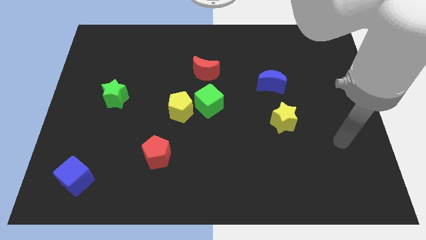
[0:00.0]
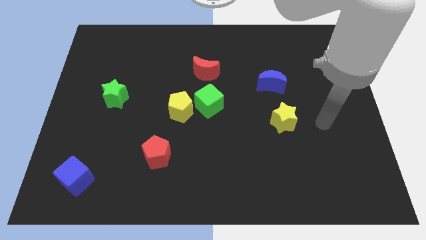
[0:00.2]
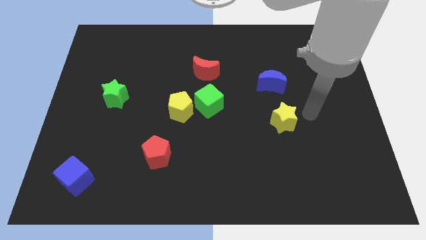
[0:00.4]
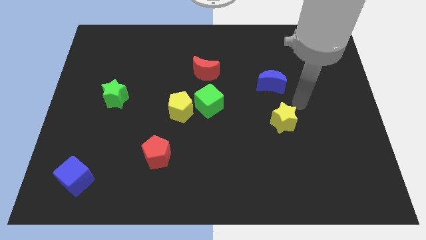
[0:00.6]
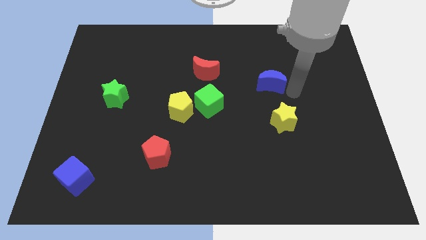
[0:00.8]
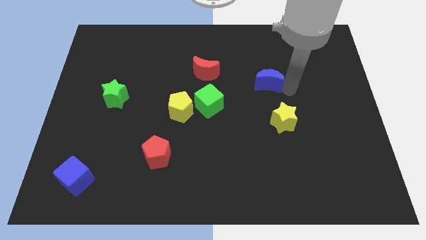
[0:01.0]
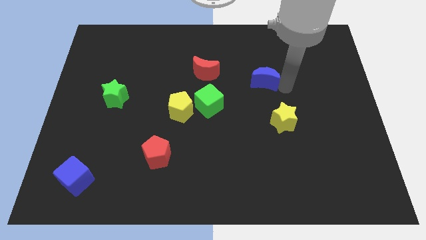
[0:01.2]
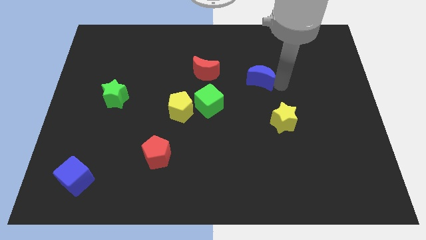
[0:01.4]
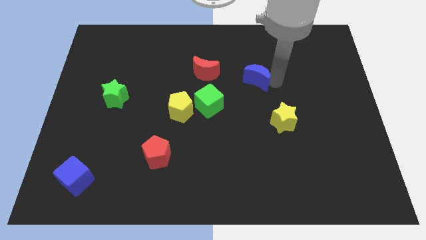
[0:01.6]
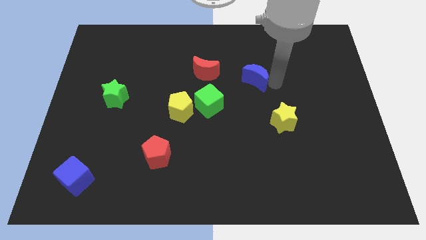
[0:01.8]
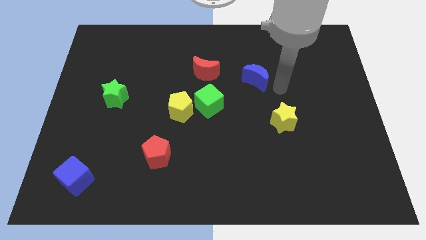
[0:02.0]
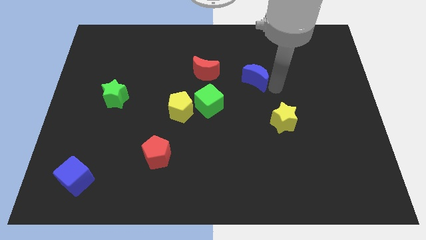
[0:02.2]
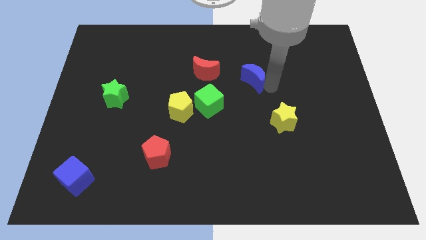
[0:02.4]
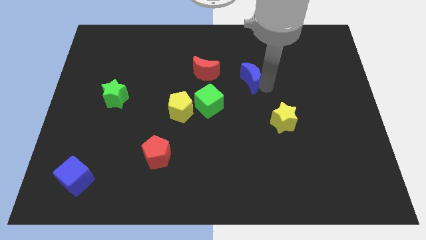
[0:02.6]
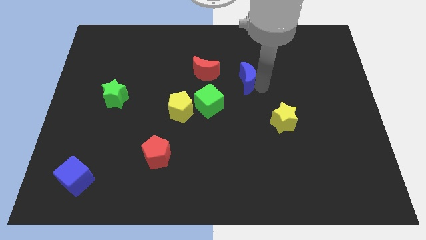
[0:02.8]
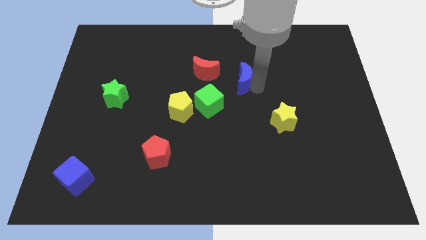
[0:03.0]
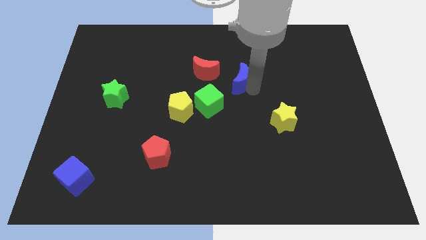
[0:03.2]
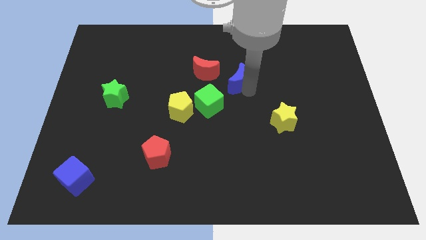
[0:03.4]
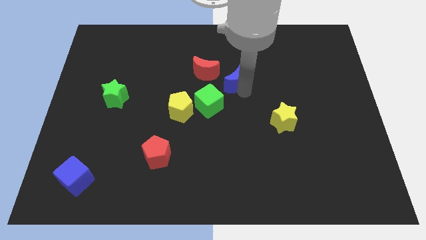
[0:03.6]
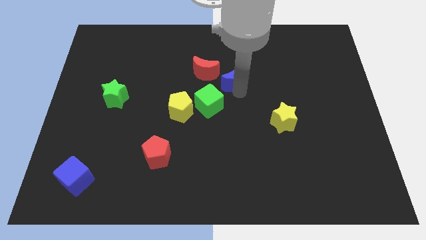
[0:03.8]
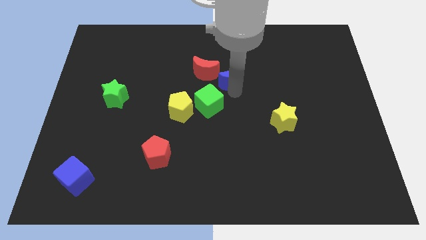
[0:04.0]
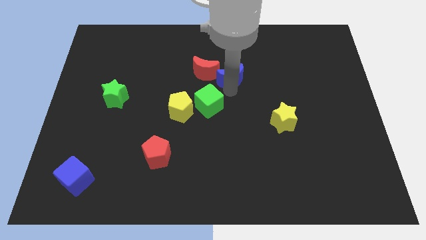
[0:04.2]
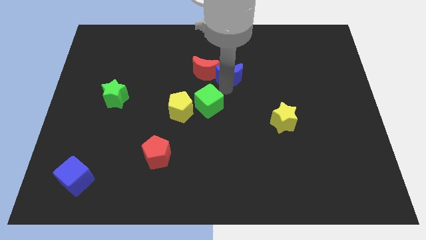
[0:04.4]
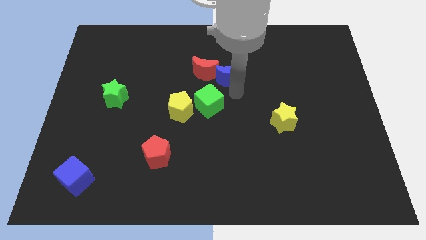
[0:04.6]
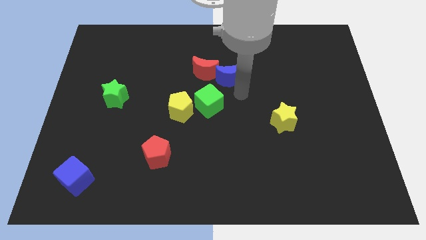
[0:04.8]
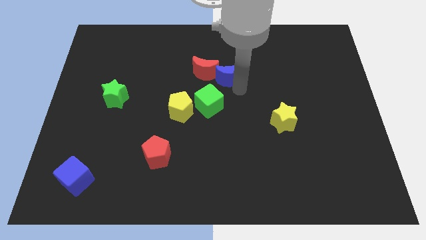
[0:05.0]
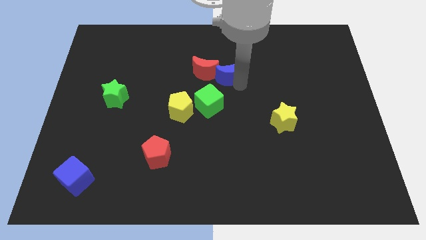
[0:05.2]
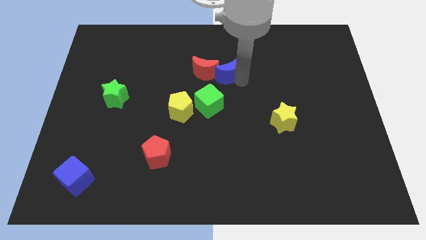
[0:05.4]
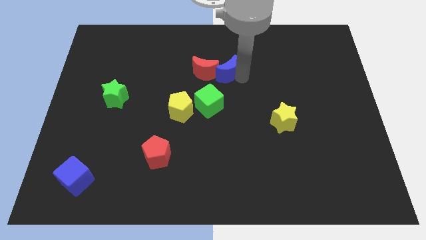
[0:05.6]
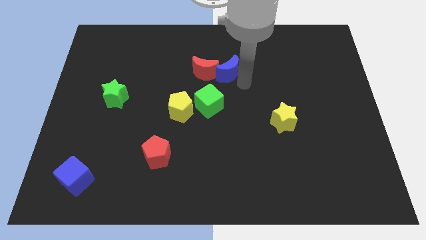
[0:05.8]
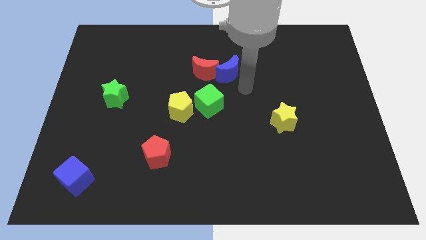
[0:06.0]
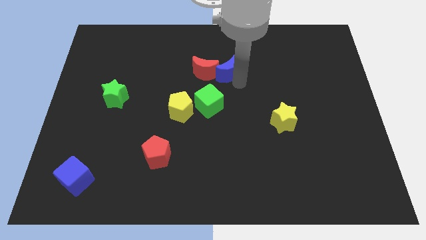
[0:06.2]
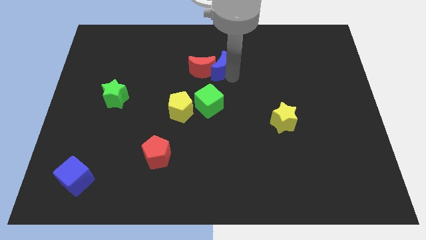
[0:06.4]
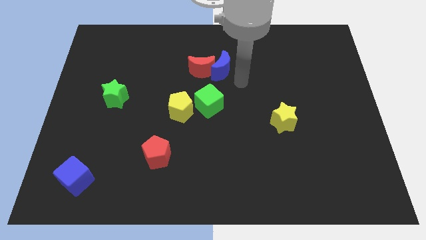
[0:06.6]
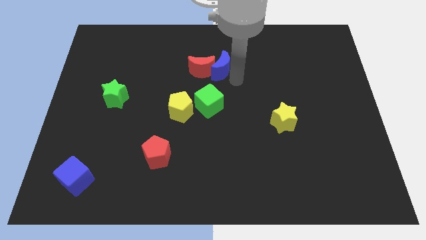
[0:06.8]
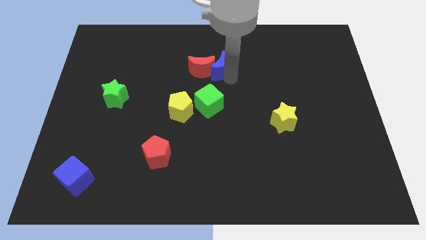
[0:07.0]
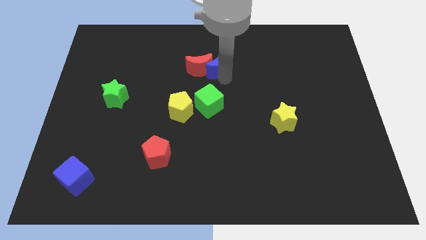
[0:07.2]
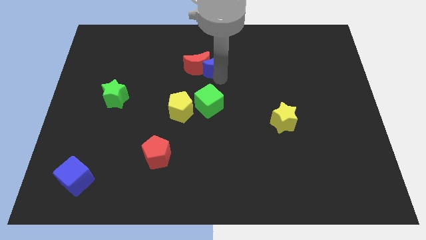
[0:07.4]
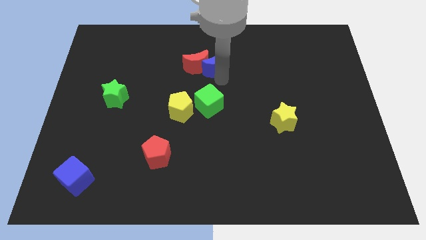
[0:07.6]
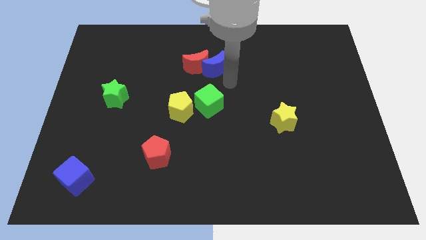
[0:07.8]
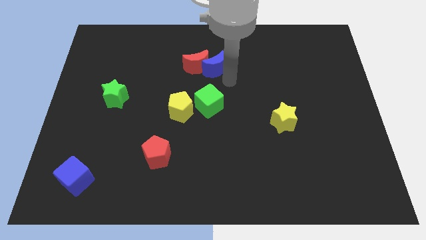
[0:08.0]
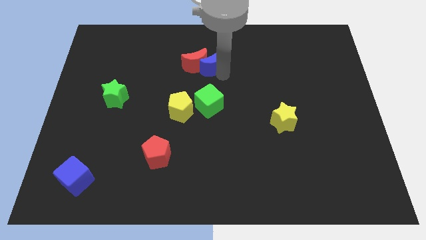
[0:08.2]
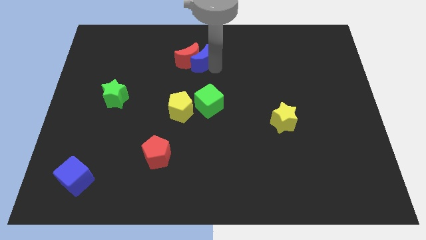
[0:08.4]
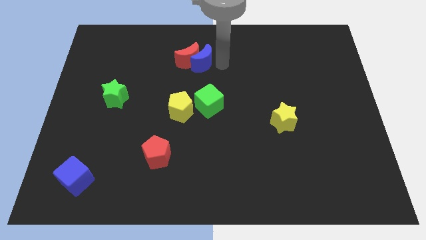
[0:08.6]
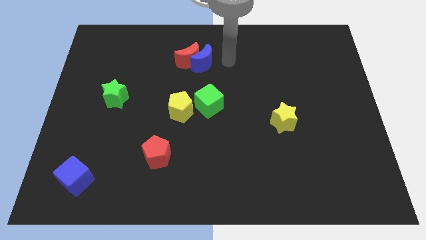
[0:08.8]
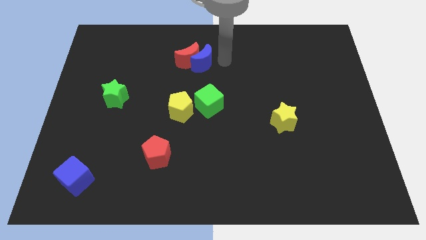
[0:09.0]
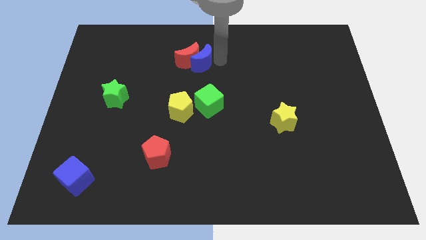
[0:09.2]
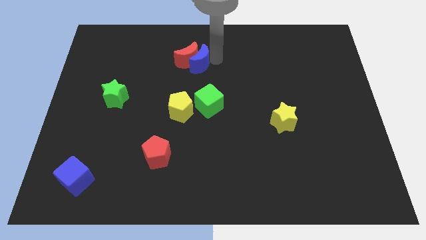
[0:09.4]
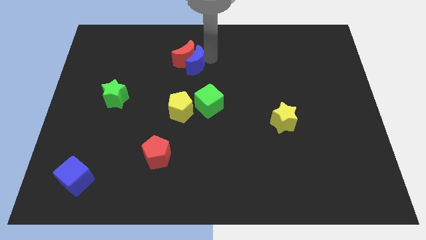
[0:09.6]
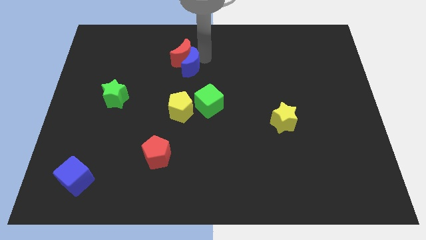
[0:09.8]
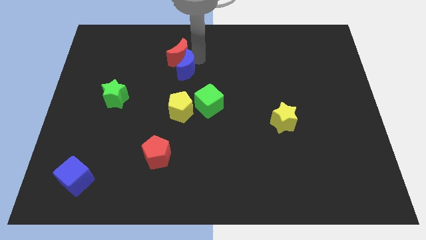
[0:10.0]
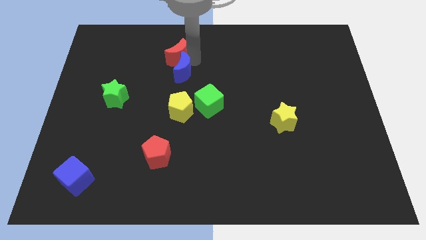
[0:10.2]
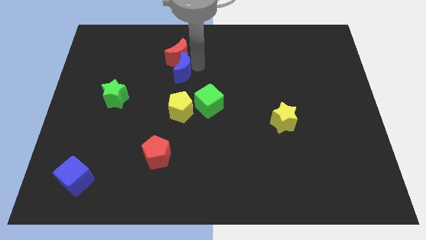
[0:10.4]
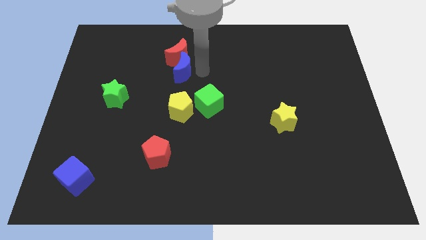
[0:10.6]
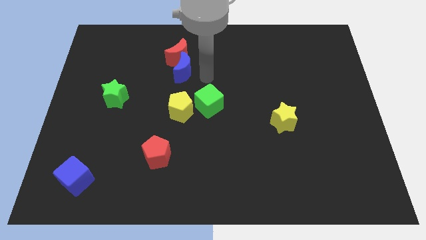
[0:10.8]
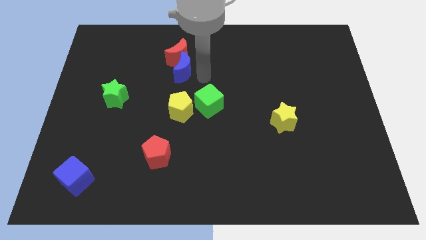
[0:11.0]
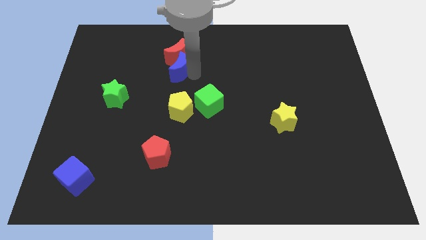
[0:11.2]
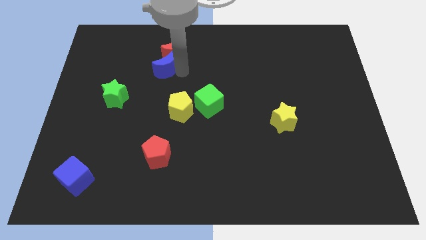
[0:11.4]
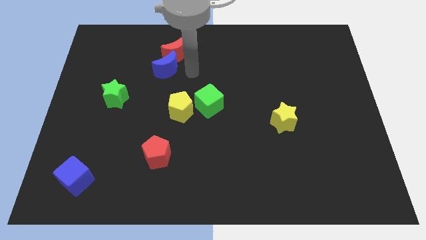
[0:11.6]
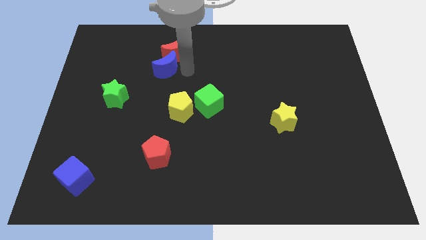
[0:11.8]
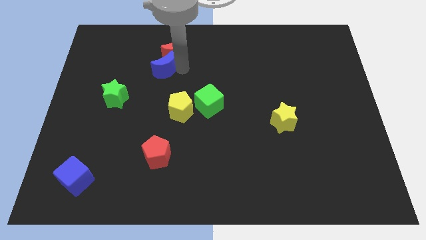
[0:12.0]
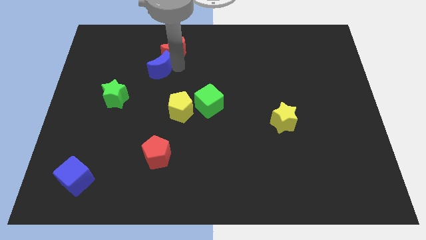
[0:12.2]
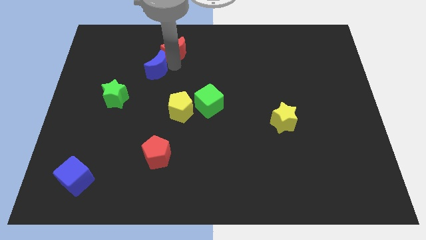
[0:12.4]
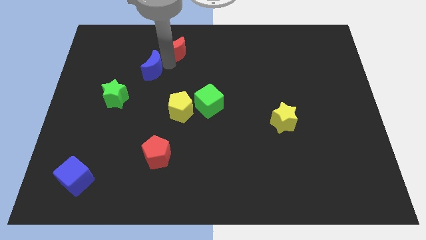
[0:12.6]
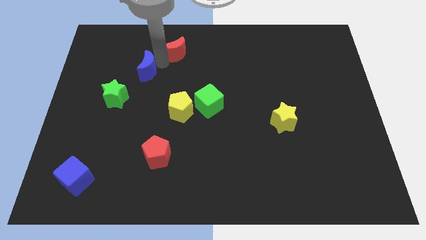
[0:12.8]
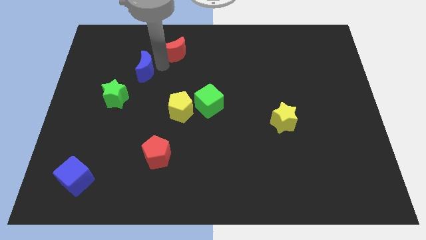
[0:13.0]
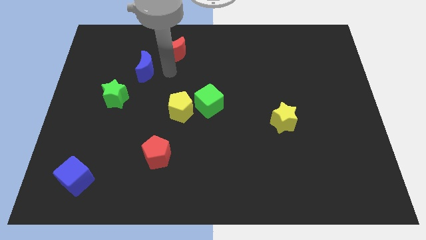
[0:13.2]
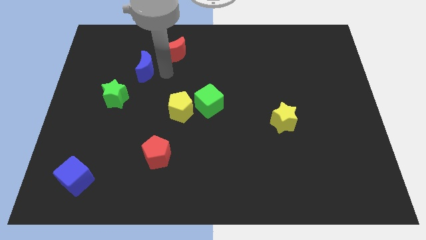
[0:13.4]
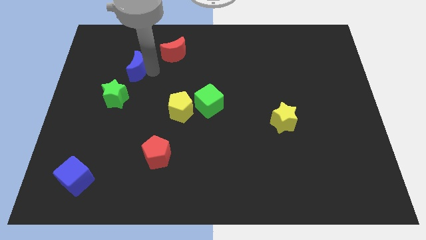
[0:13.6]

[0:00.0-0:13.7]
slide the blue moon above the green star
